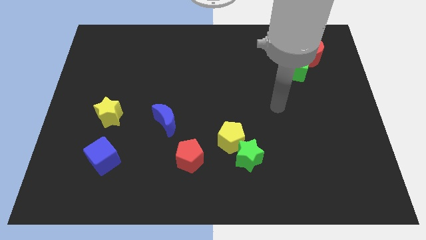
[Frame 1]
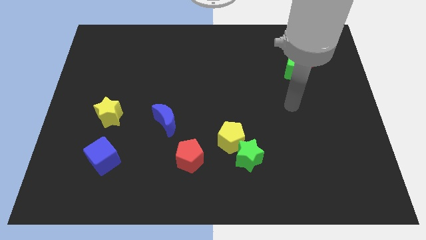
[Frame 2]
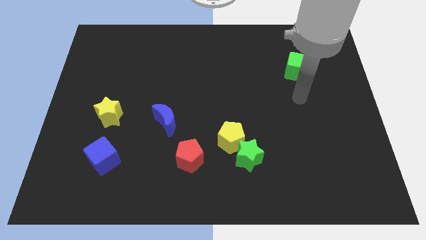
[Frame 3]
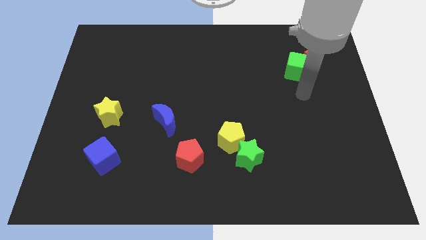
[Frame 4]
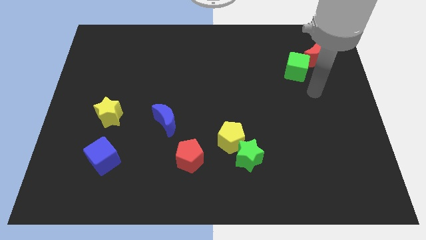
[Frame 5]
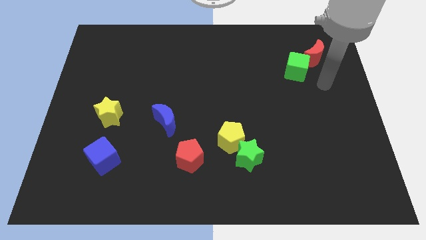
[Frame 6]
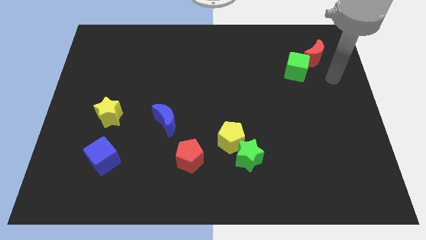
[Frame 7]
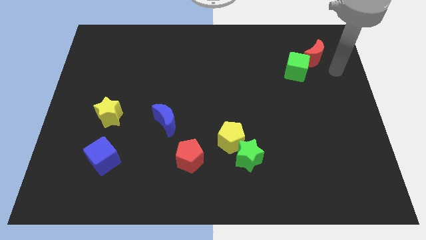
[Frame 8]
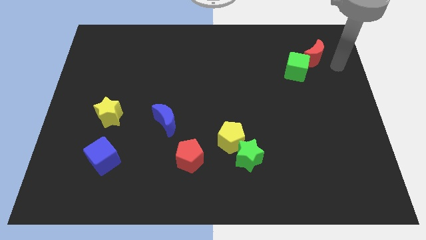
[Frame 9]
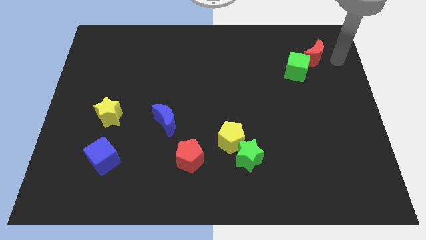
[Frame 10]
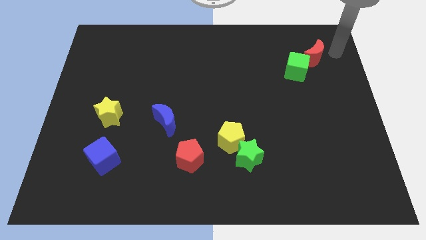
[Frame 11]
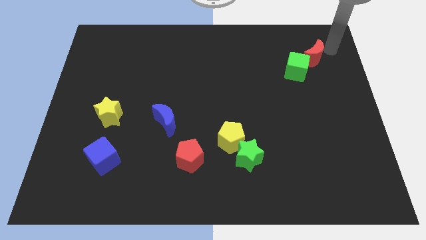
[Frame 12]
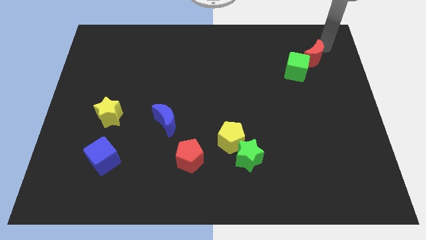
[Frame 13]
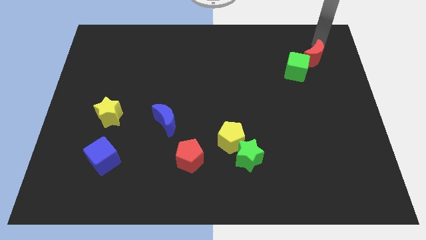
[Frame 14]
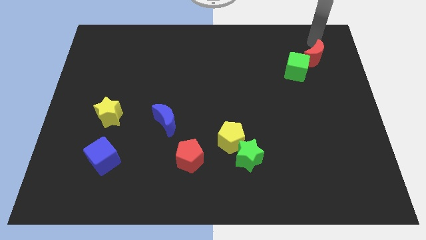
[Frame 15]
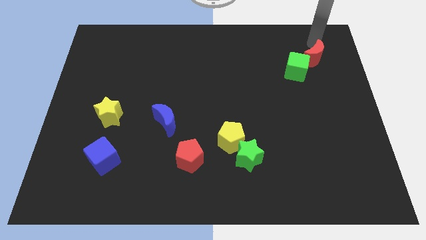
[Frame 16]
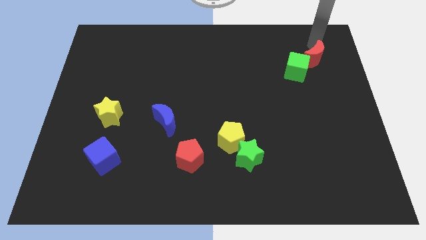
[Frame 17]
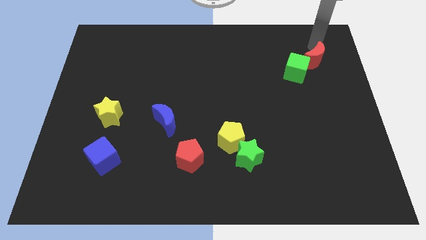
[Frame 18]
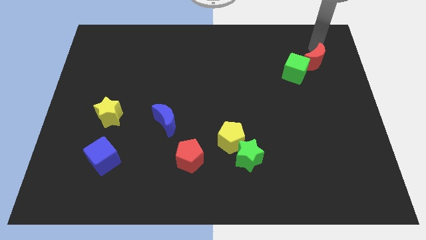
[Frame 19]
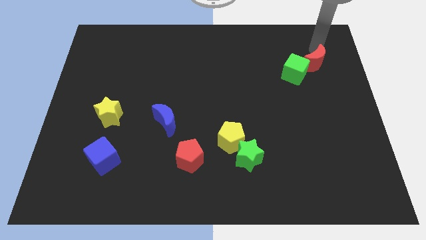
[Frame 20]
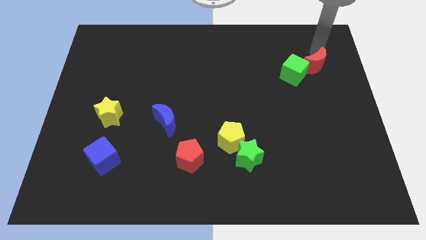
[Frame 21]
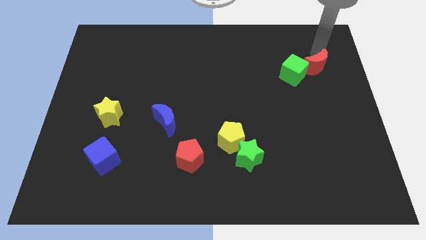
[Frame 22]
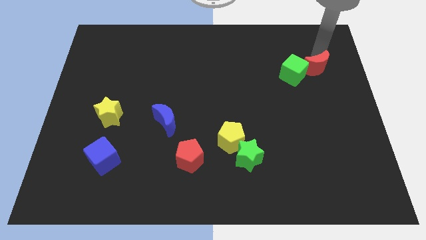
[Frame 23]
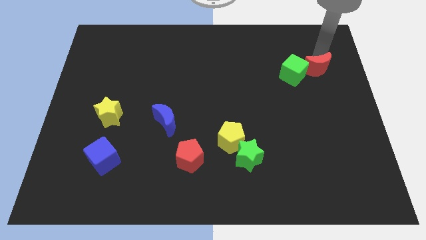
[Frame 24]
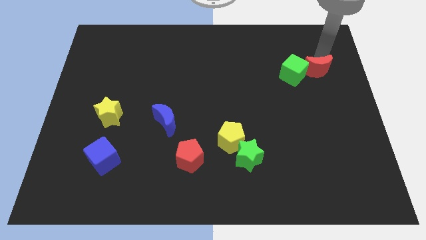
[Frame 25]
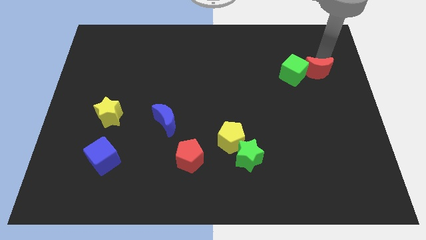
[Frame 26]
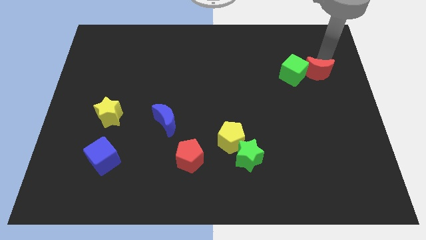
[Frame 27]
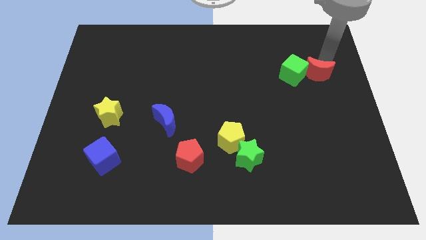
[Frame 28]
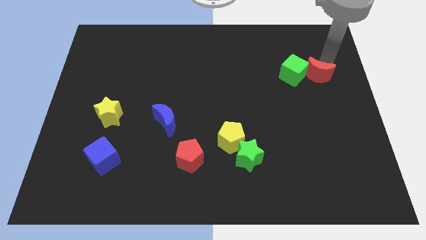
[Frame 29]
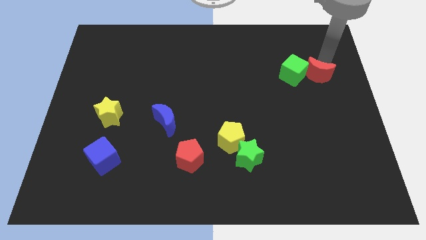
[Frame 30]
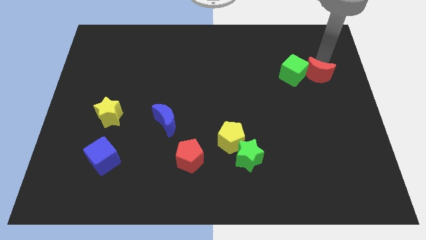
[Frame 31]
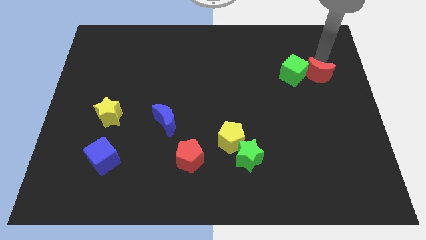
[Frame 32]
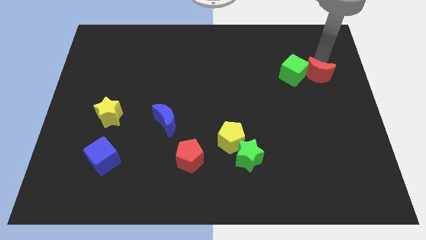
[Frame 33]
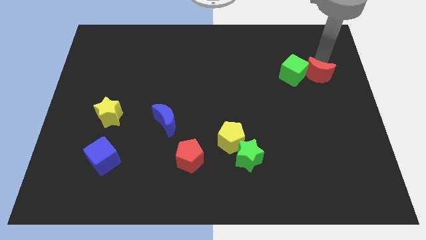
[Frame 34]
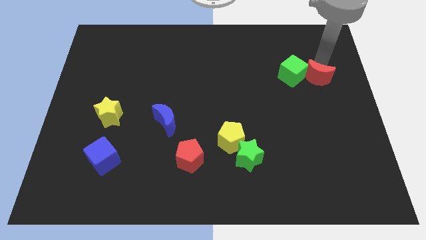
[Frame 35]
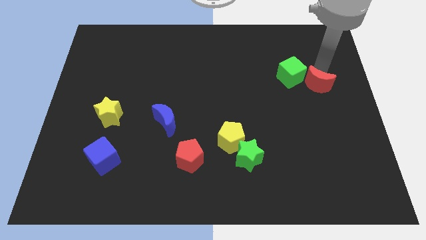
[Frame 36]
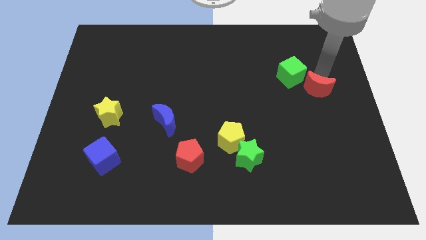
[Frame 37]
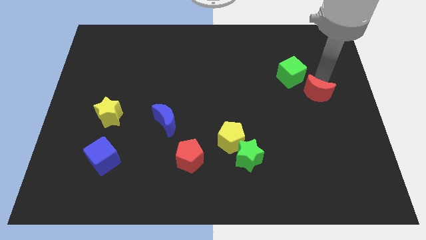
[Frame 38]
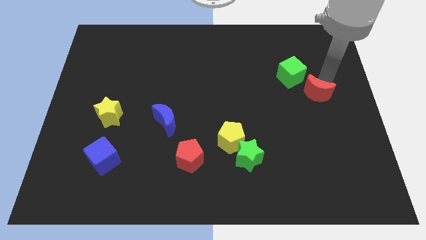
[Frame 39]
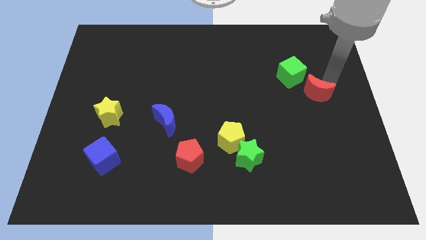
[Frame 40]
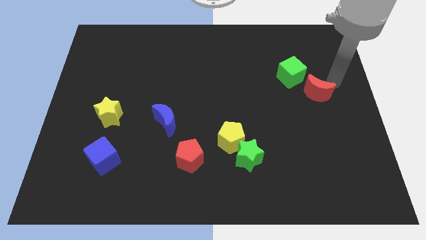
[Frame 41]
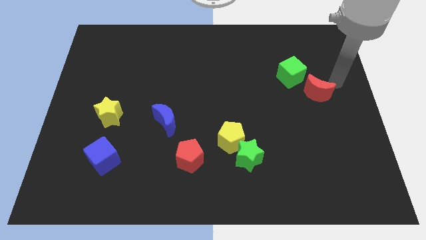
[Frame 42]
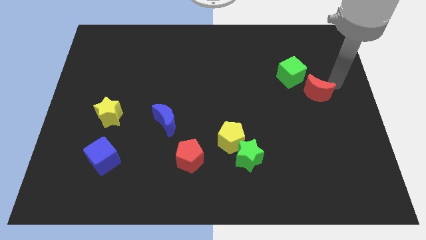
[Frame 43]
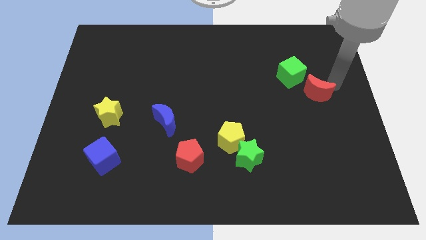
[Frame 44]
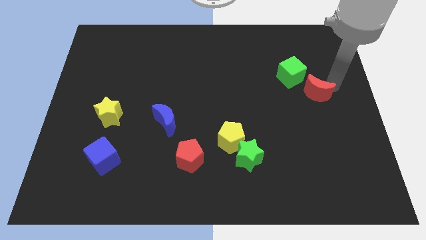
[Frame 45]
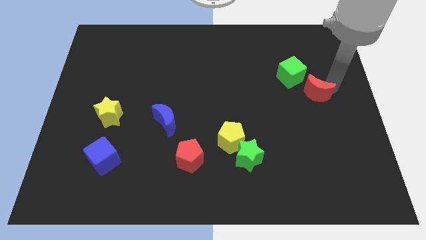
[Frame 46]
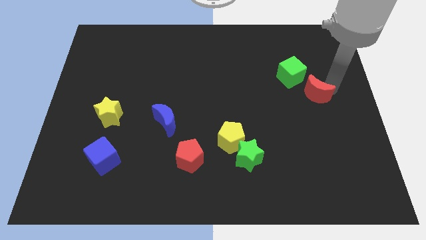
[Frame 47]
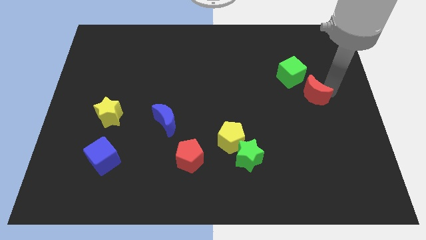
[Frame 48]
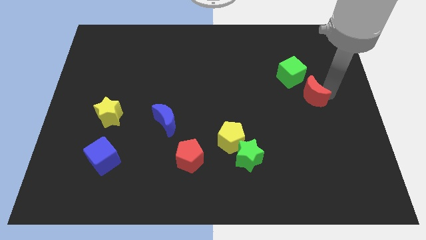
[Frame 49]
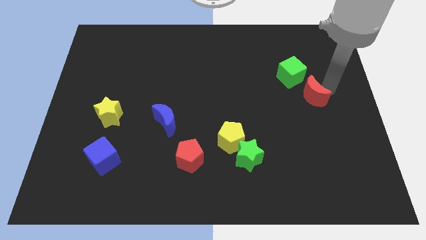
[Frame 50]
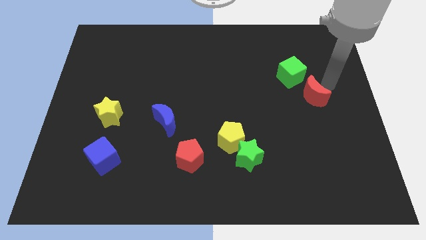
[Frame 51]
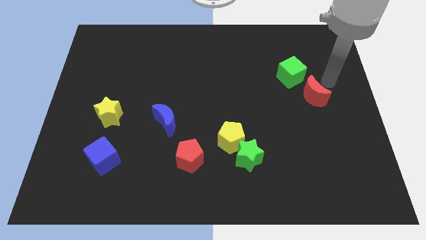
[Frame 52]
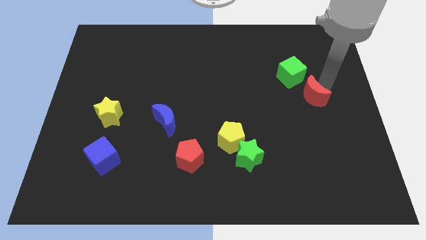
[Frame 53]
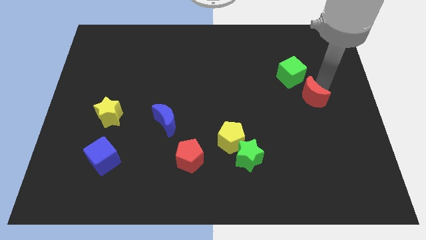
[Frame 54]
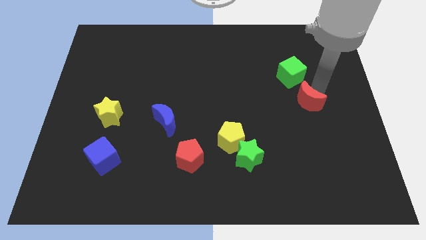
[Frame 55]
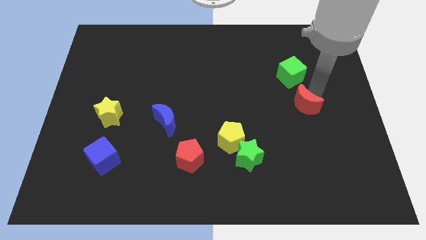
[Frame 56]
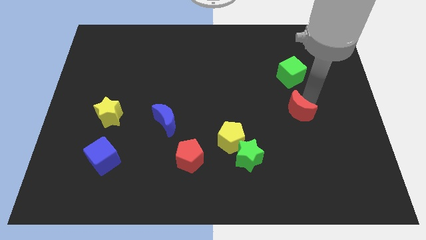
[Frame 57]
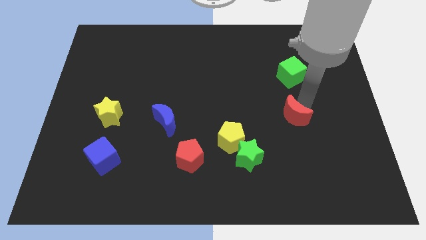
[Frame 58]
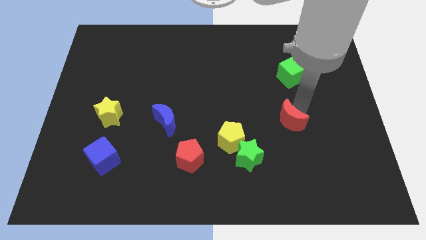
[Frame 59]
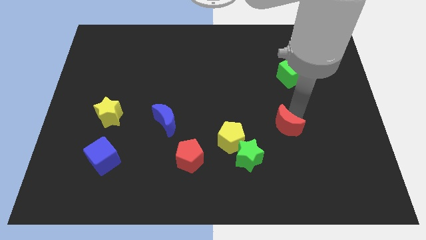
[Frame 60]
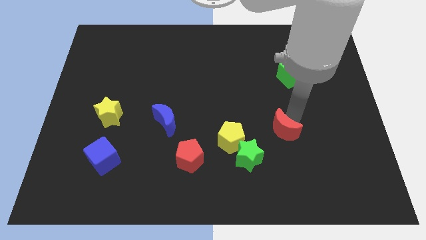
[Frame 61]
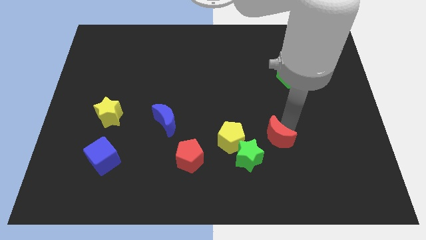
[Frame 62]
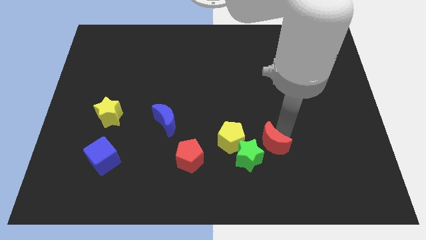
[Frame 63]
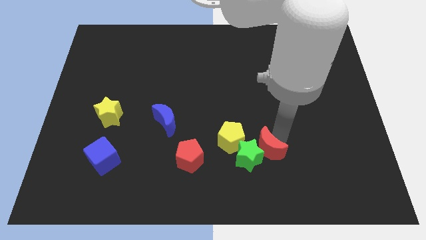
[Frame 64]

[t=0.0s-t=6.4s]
slide the red moon towards the green star

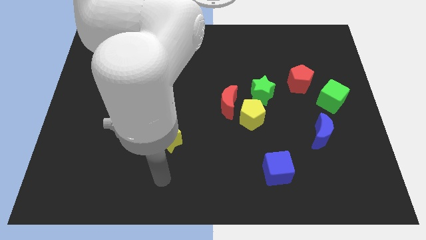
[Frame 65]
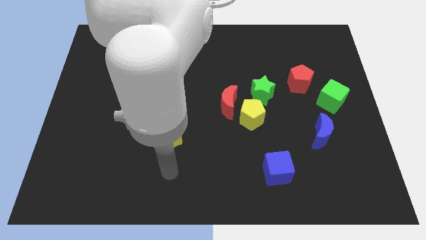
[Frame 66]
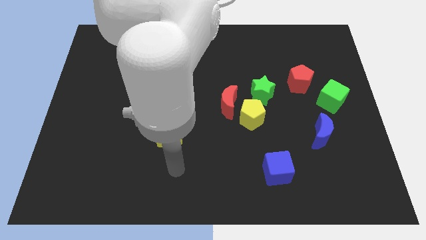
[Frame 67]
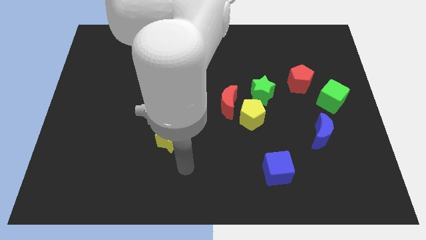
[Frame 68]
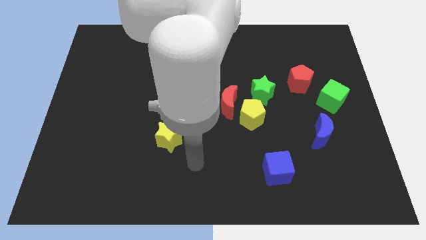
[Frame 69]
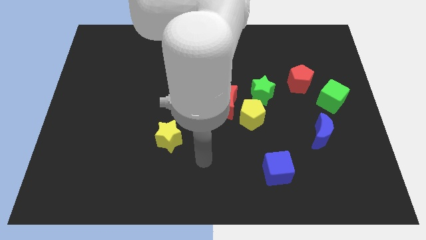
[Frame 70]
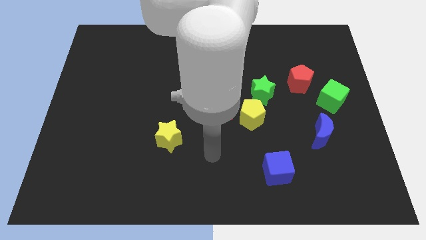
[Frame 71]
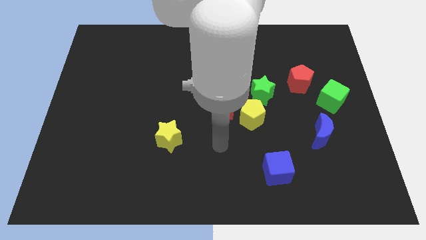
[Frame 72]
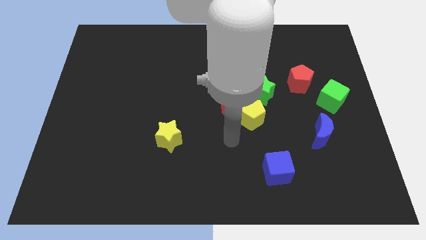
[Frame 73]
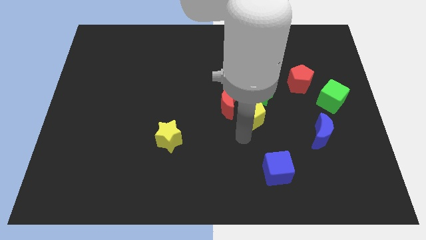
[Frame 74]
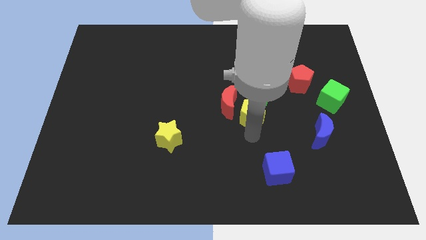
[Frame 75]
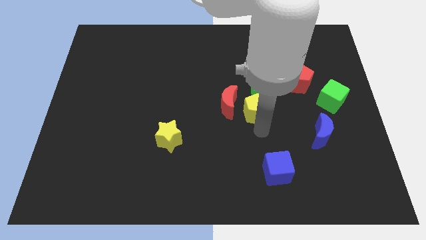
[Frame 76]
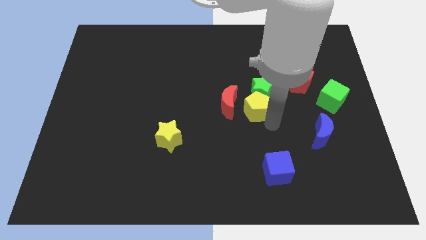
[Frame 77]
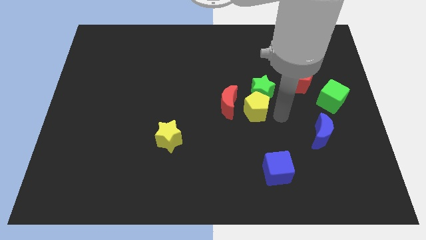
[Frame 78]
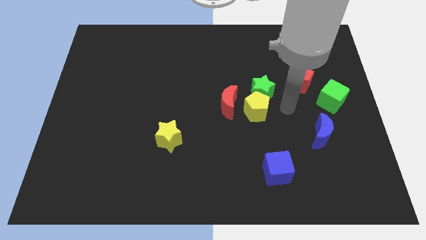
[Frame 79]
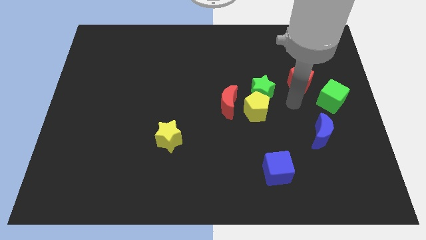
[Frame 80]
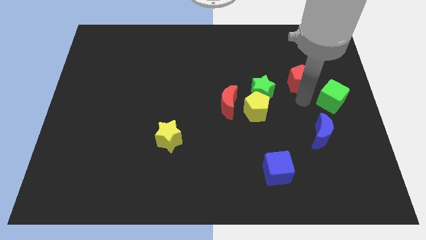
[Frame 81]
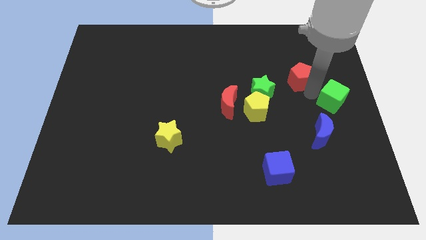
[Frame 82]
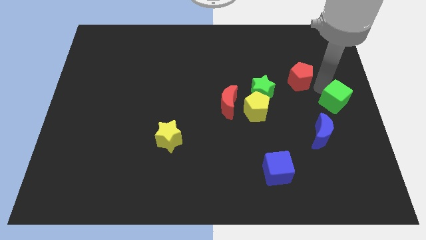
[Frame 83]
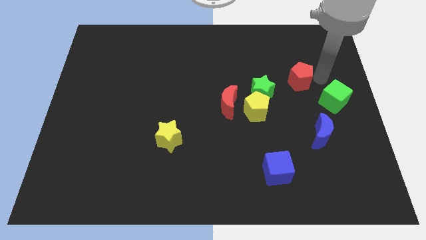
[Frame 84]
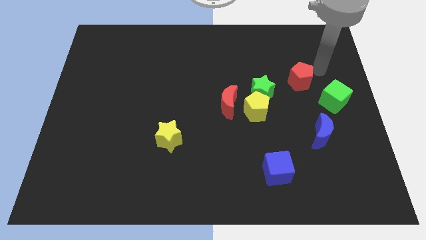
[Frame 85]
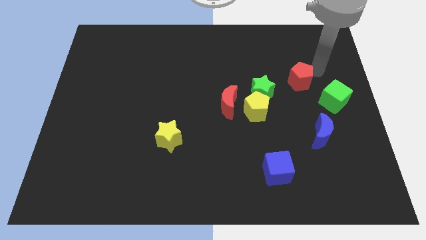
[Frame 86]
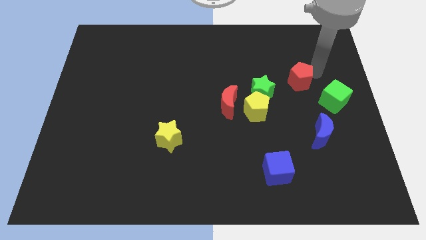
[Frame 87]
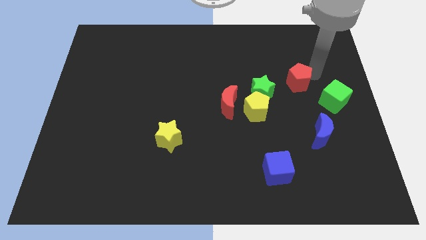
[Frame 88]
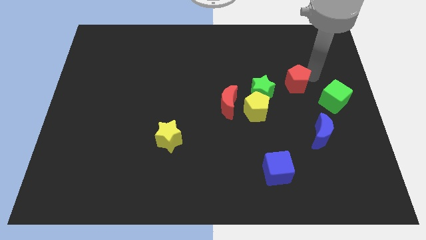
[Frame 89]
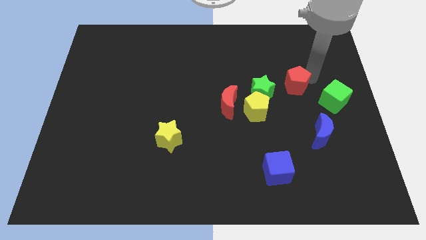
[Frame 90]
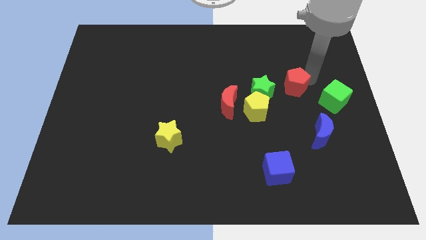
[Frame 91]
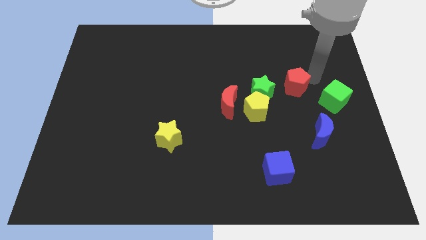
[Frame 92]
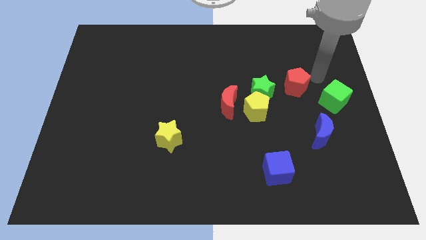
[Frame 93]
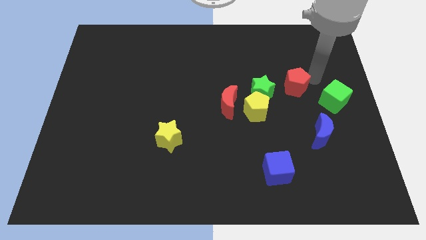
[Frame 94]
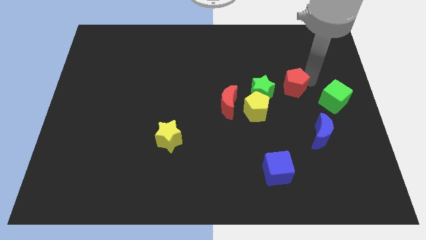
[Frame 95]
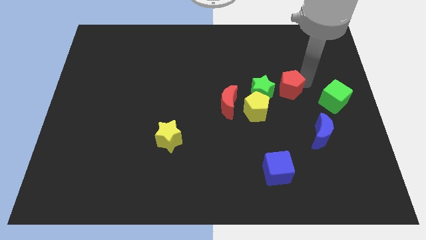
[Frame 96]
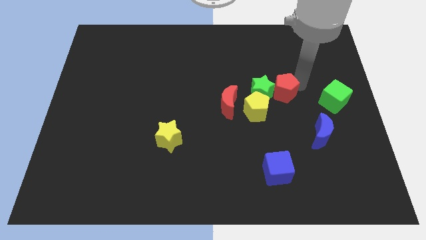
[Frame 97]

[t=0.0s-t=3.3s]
move the red pentagon next to the green star
